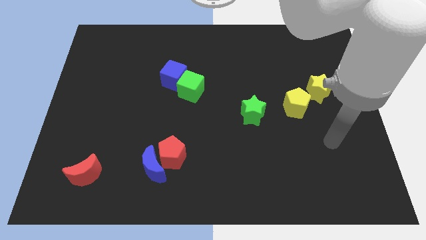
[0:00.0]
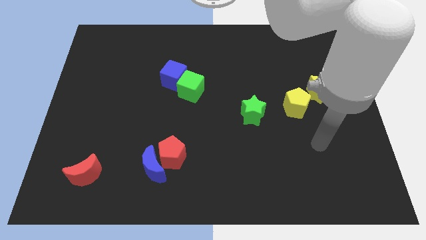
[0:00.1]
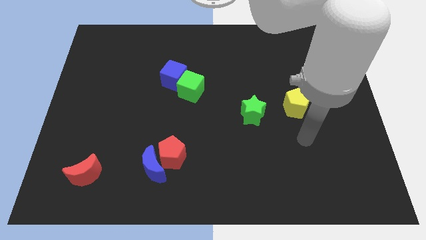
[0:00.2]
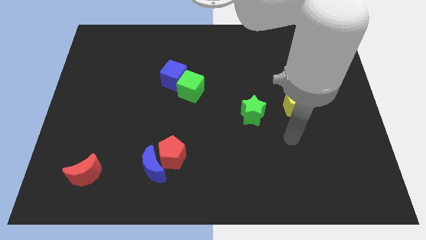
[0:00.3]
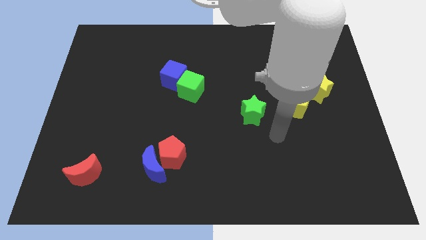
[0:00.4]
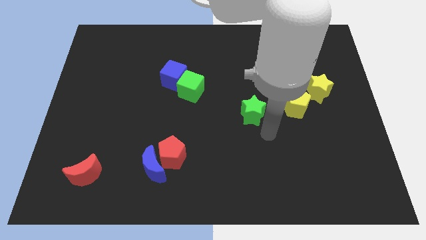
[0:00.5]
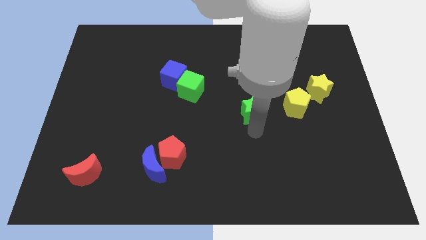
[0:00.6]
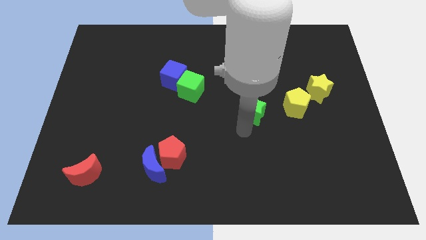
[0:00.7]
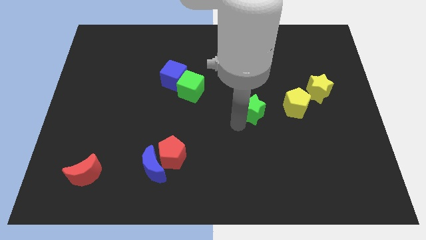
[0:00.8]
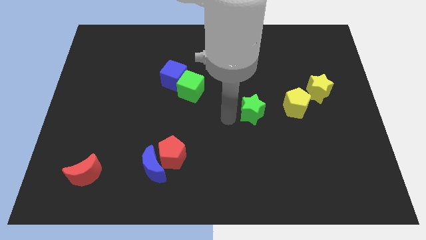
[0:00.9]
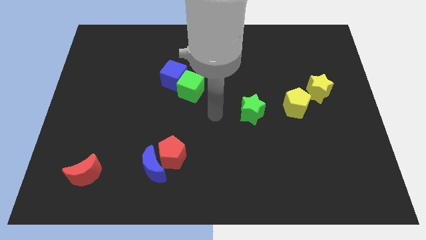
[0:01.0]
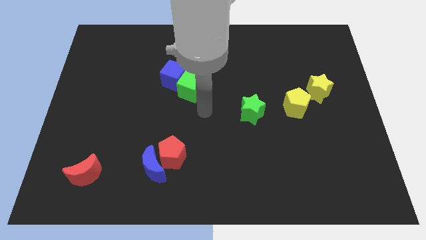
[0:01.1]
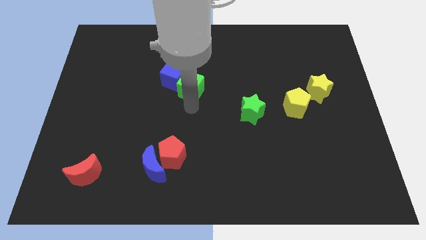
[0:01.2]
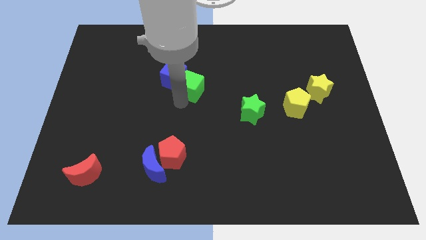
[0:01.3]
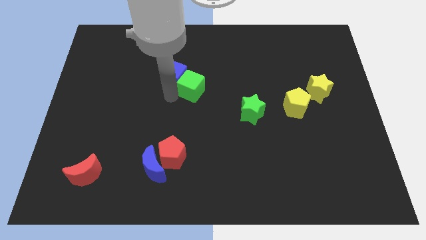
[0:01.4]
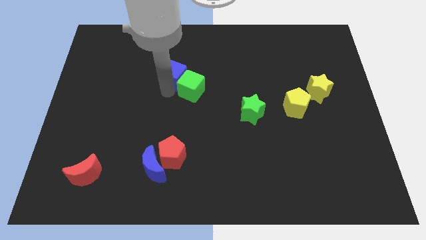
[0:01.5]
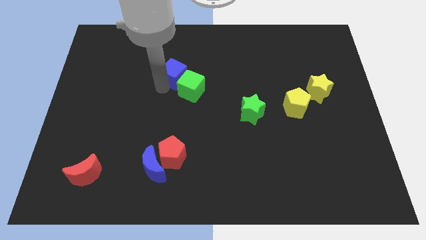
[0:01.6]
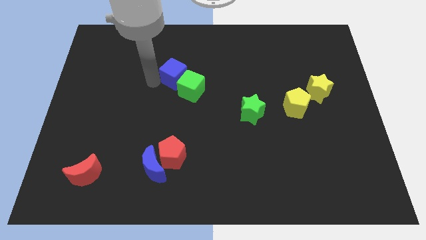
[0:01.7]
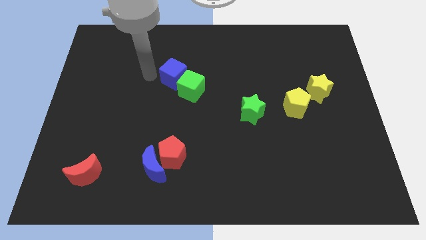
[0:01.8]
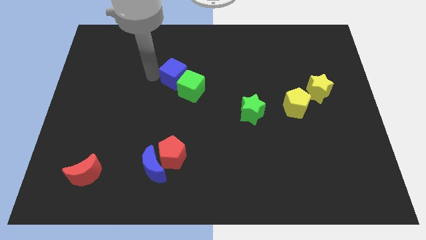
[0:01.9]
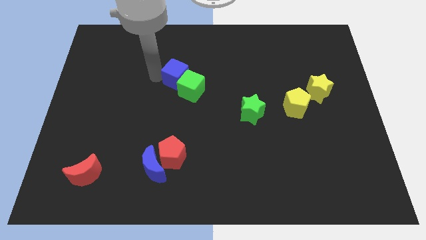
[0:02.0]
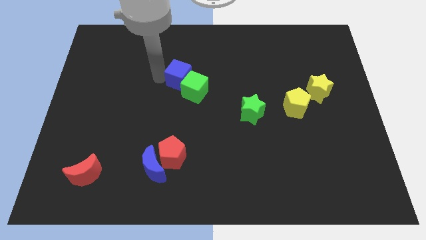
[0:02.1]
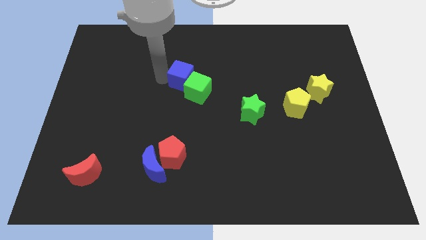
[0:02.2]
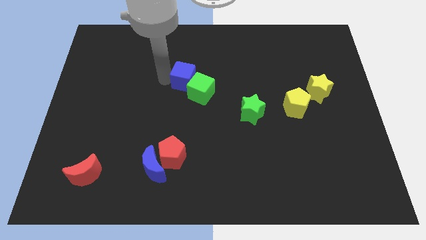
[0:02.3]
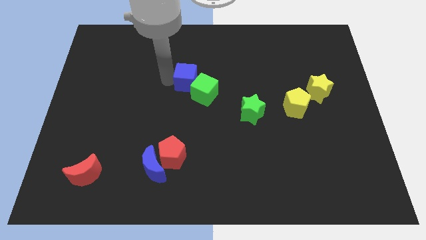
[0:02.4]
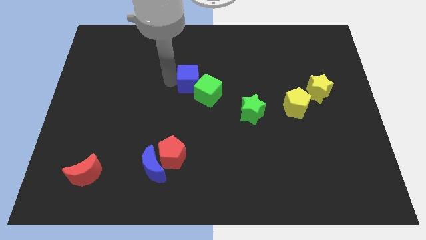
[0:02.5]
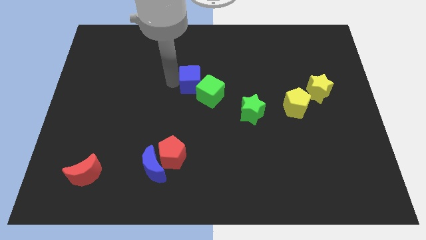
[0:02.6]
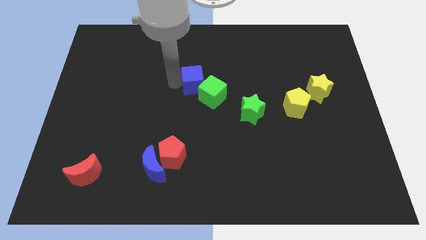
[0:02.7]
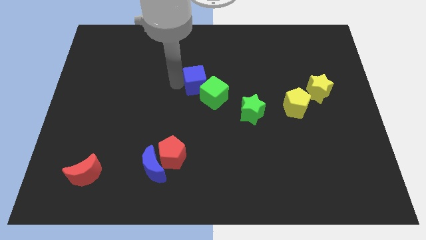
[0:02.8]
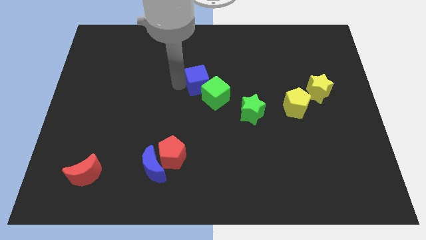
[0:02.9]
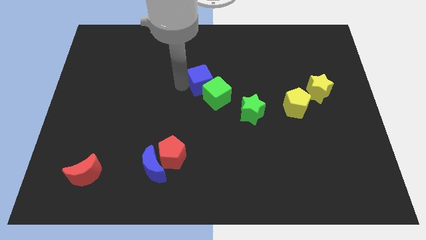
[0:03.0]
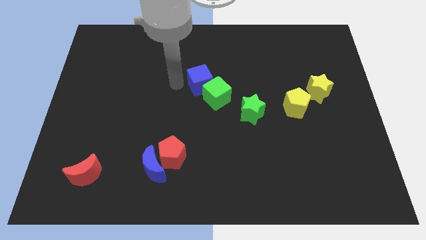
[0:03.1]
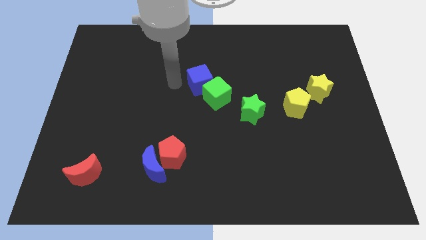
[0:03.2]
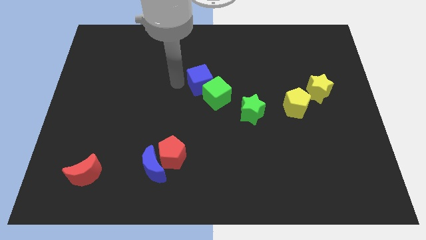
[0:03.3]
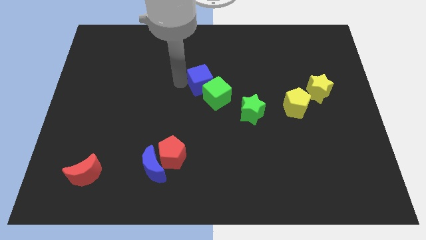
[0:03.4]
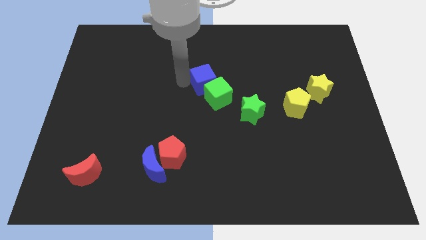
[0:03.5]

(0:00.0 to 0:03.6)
slightly slide the blue cube to the right

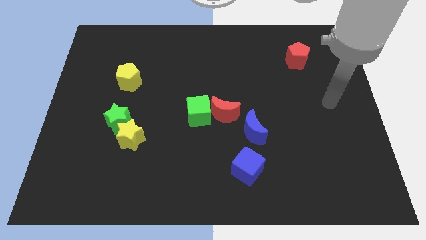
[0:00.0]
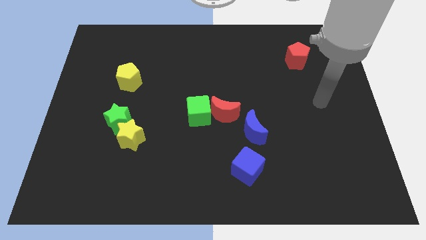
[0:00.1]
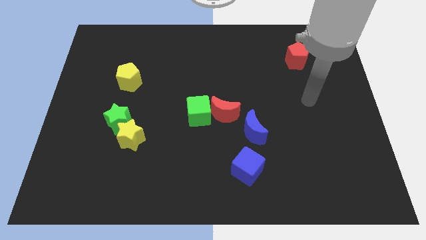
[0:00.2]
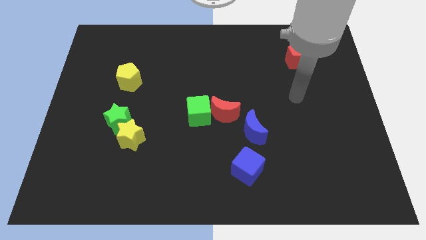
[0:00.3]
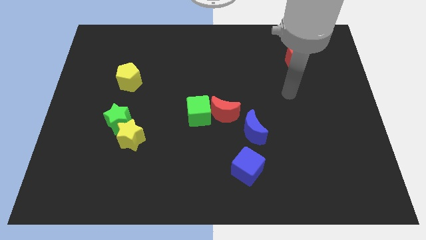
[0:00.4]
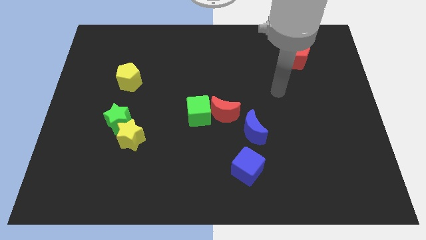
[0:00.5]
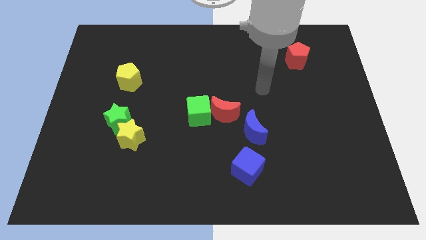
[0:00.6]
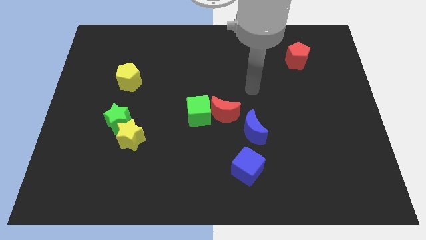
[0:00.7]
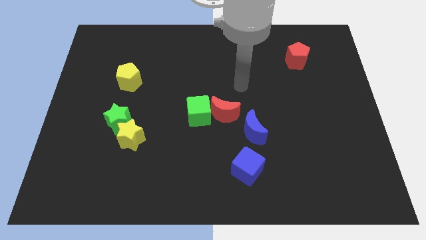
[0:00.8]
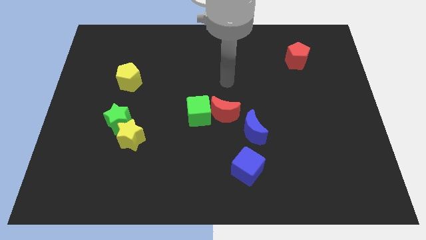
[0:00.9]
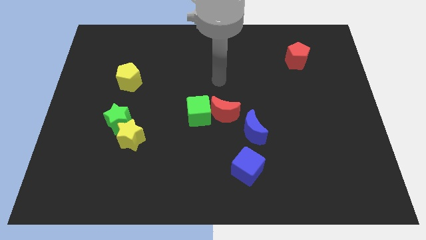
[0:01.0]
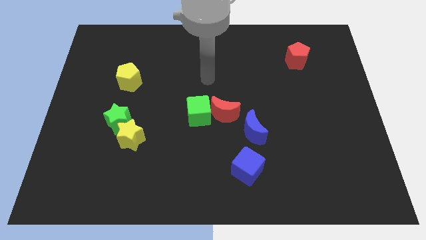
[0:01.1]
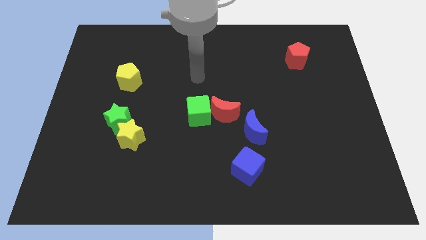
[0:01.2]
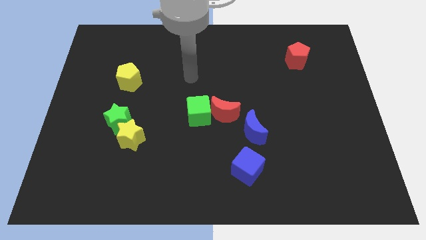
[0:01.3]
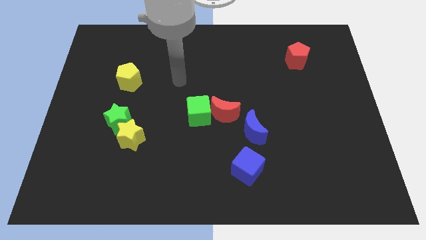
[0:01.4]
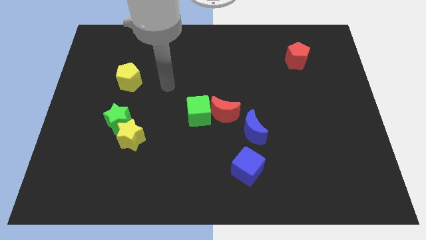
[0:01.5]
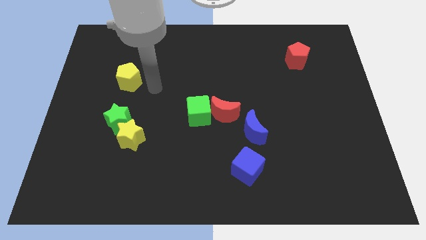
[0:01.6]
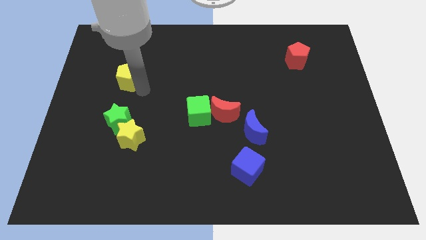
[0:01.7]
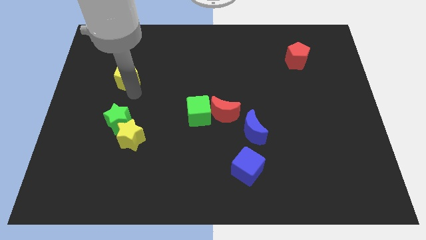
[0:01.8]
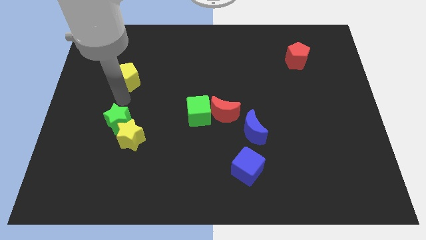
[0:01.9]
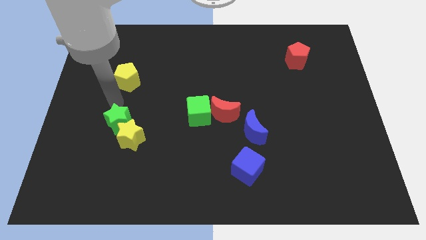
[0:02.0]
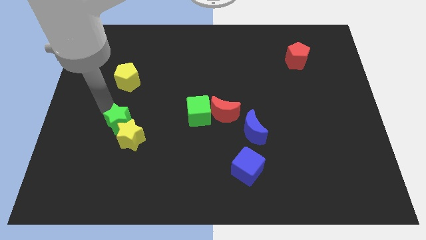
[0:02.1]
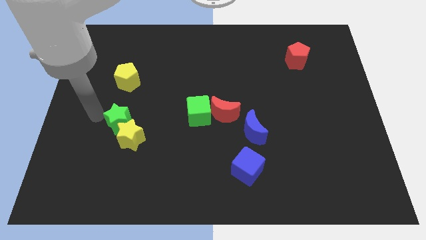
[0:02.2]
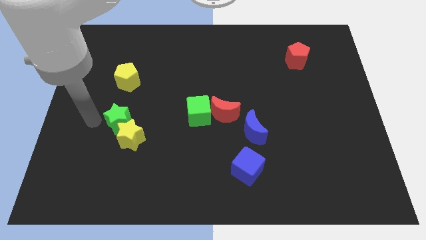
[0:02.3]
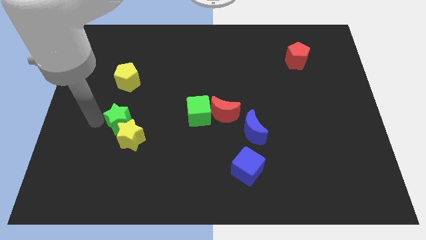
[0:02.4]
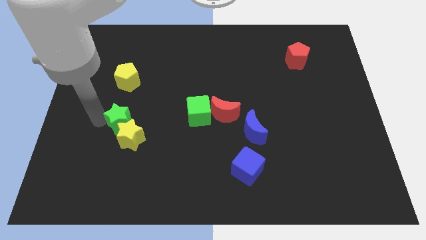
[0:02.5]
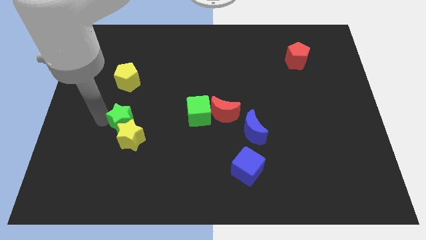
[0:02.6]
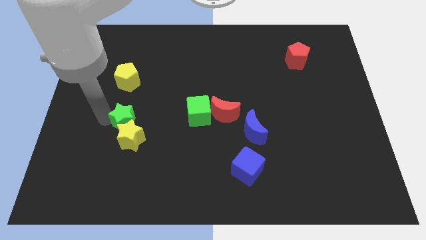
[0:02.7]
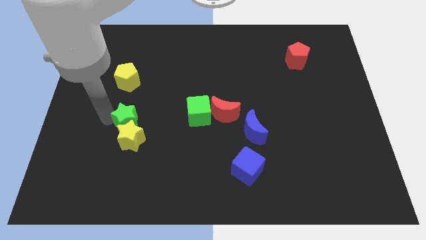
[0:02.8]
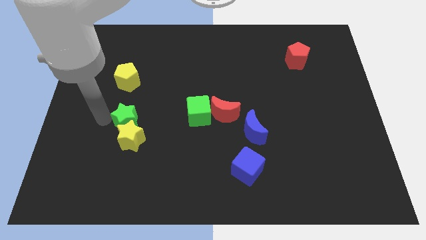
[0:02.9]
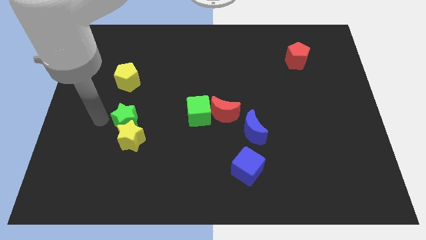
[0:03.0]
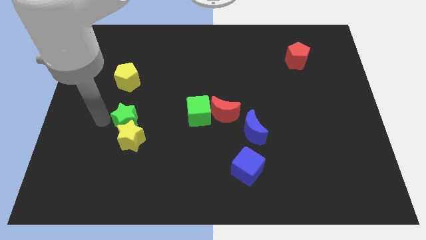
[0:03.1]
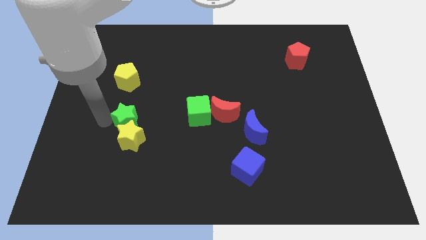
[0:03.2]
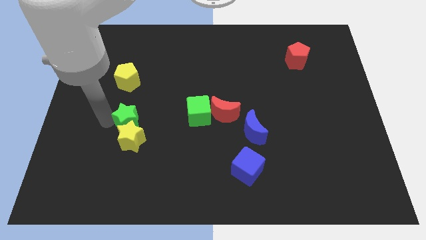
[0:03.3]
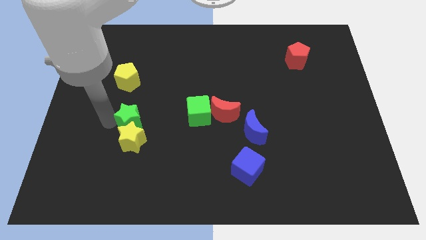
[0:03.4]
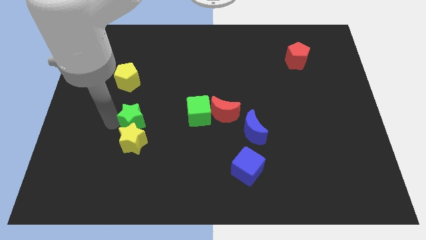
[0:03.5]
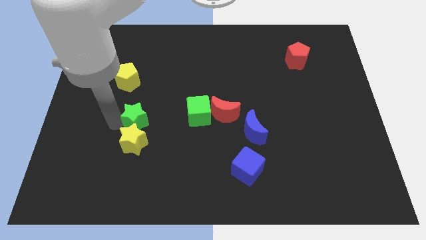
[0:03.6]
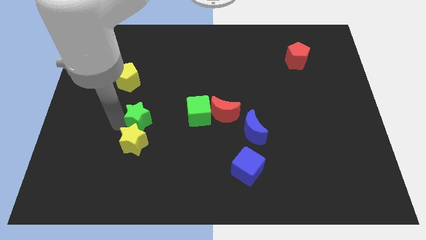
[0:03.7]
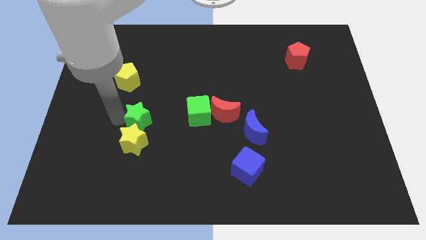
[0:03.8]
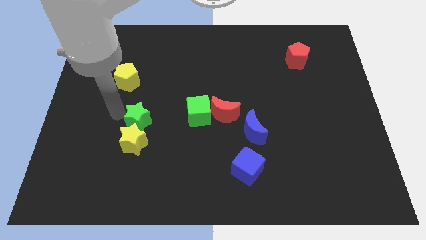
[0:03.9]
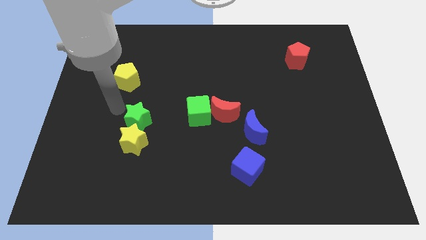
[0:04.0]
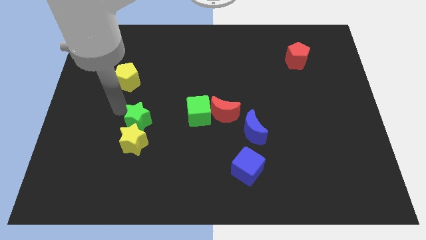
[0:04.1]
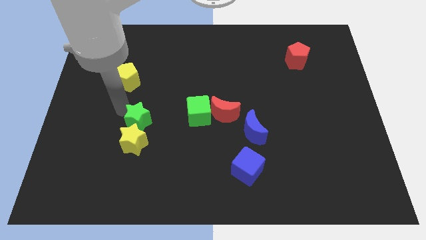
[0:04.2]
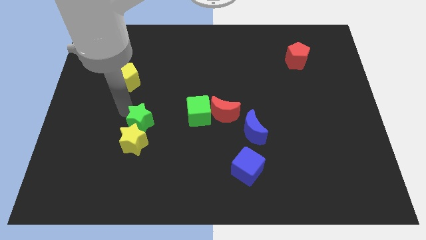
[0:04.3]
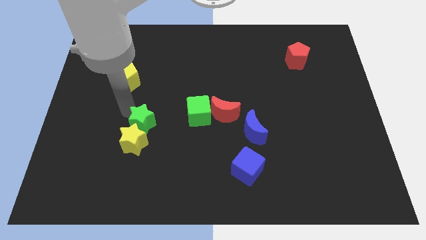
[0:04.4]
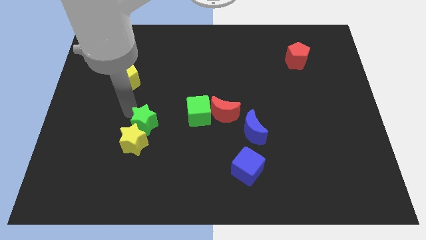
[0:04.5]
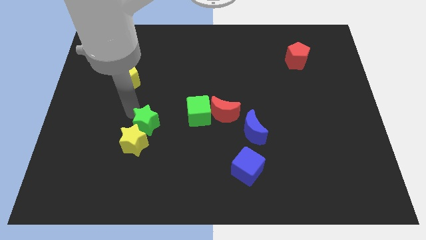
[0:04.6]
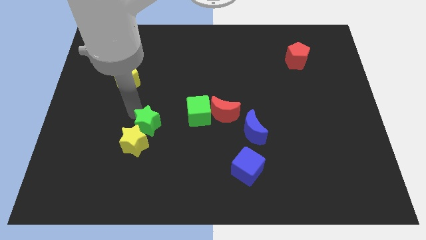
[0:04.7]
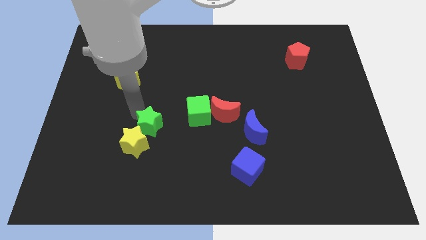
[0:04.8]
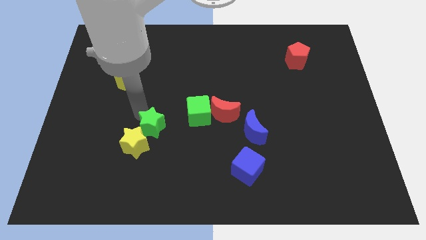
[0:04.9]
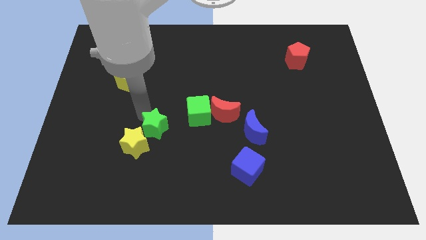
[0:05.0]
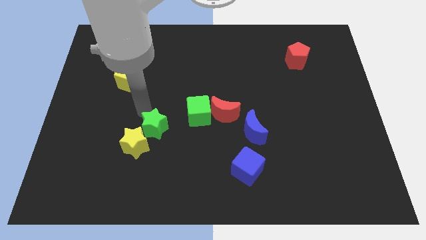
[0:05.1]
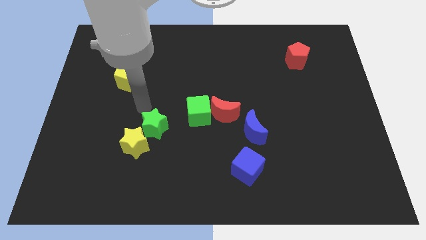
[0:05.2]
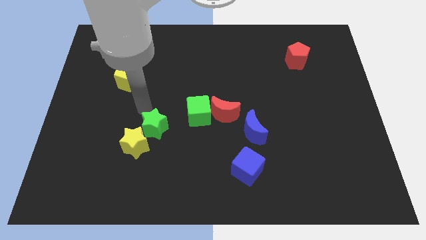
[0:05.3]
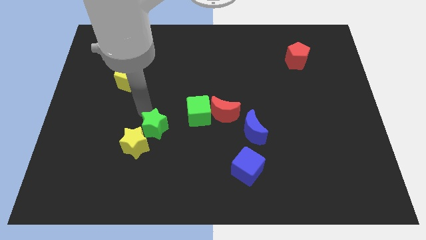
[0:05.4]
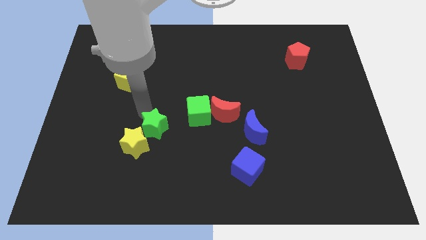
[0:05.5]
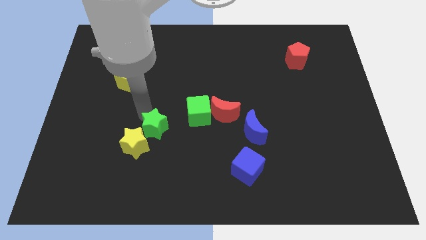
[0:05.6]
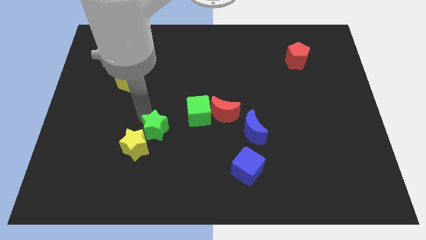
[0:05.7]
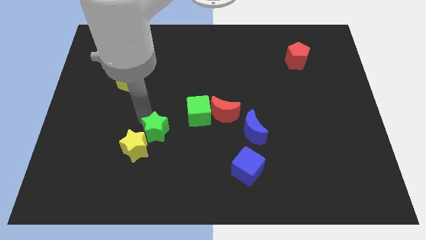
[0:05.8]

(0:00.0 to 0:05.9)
slightly move the green star down and then right
